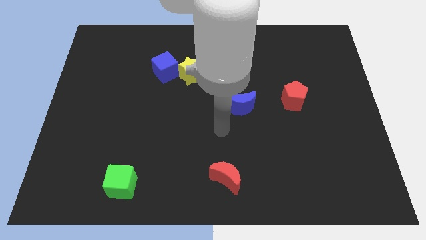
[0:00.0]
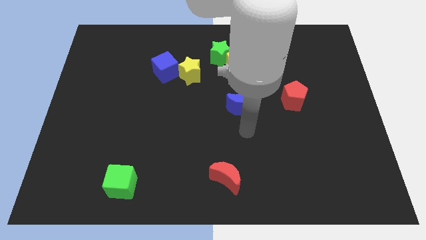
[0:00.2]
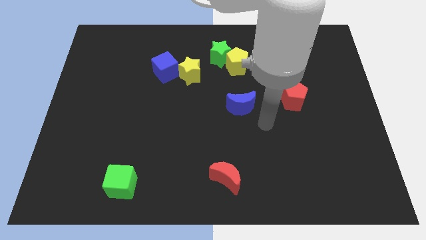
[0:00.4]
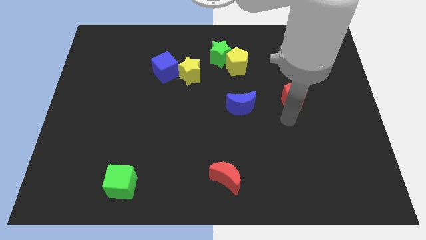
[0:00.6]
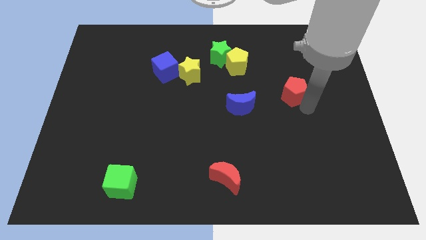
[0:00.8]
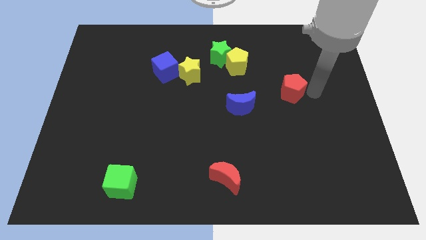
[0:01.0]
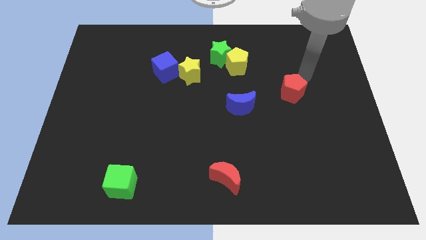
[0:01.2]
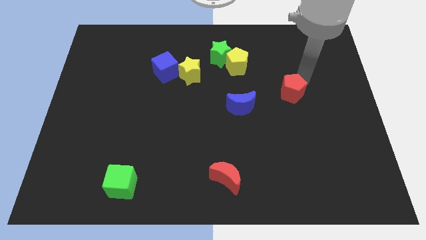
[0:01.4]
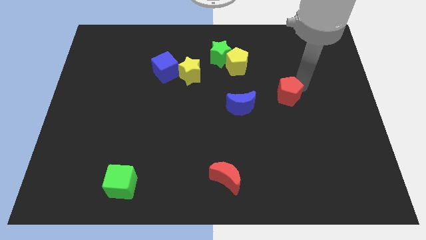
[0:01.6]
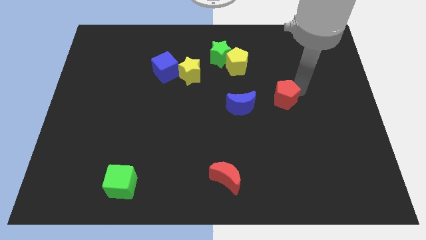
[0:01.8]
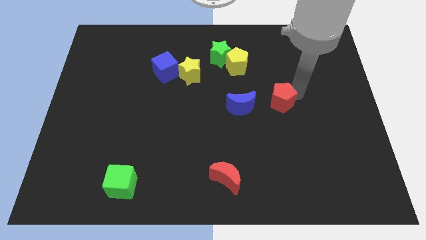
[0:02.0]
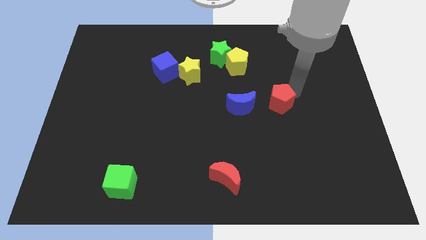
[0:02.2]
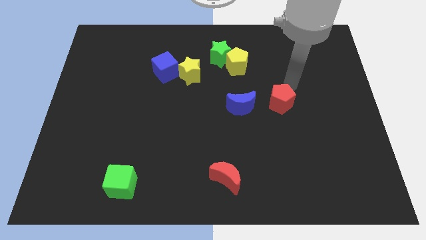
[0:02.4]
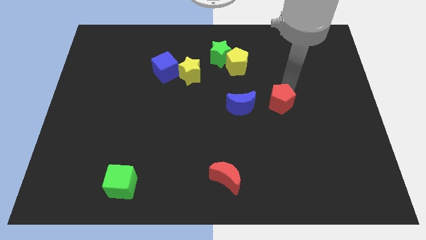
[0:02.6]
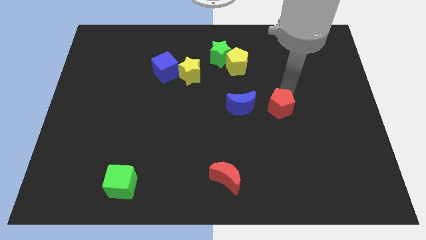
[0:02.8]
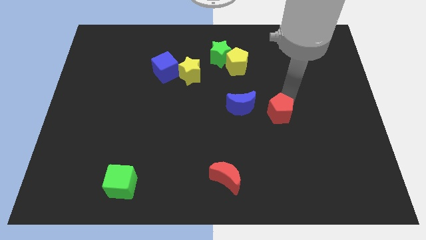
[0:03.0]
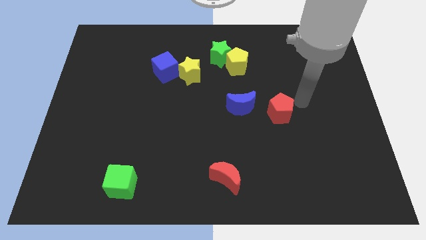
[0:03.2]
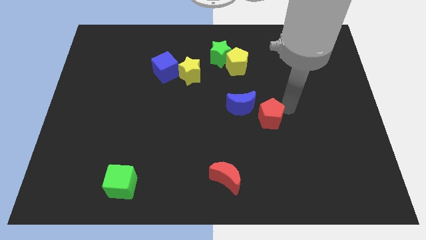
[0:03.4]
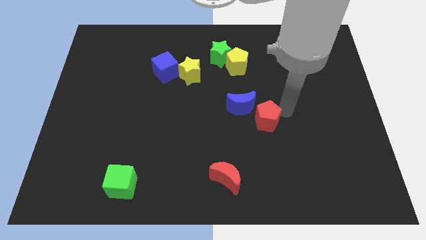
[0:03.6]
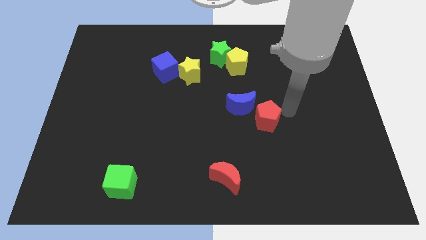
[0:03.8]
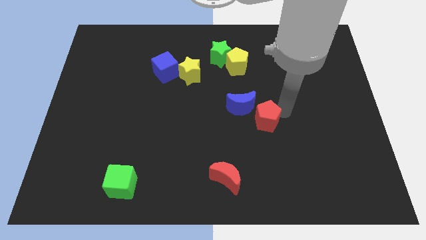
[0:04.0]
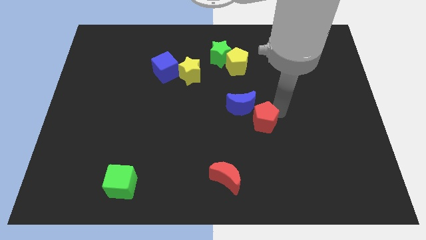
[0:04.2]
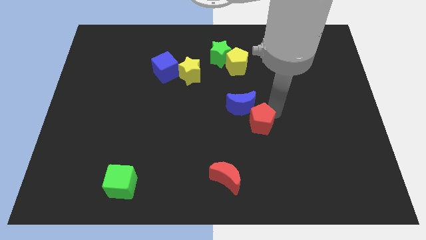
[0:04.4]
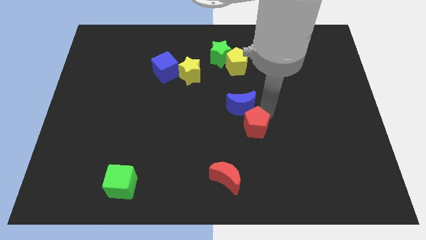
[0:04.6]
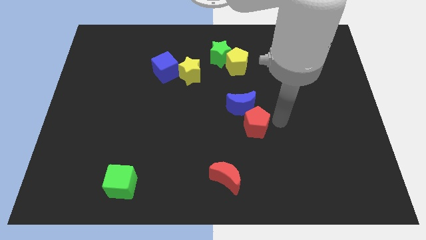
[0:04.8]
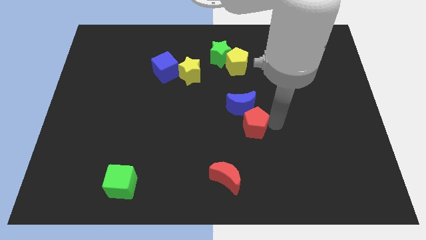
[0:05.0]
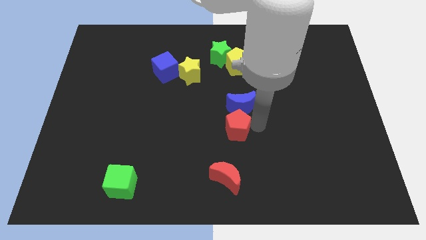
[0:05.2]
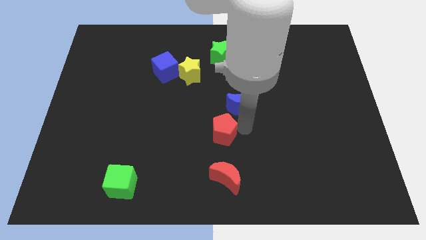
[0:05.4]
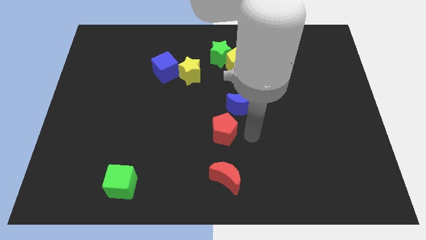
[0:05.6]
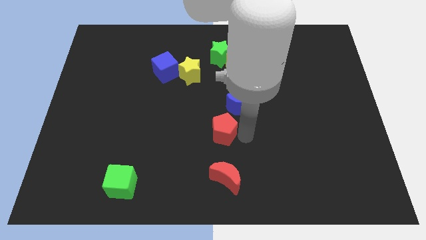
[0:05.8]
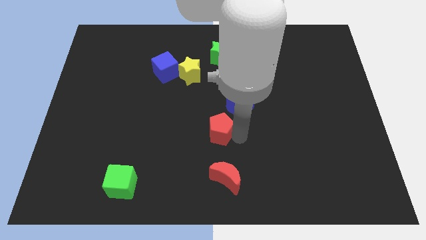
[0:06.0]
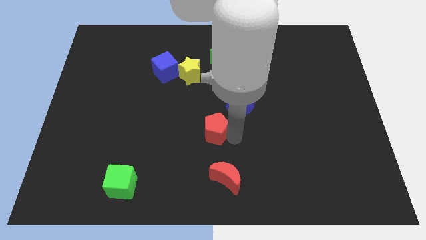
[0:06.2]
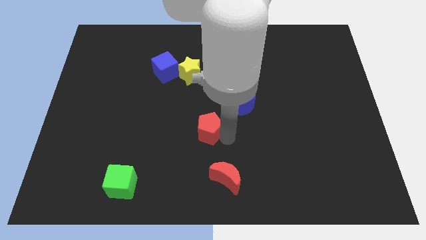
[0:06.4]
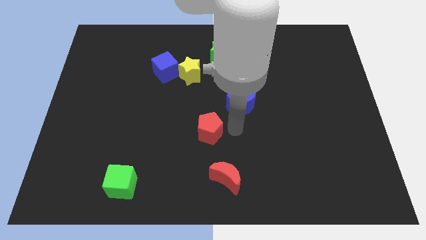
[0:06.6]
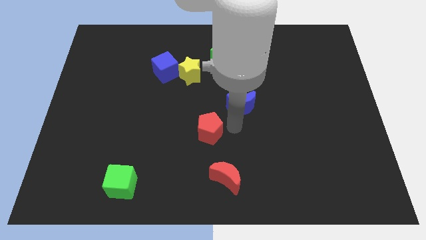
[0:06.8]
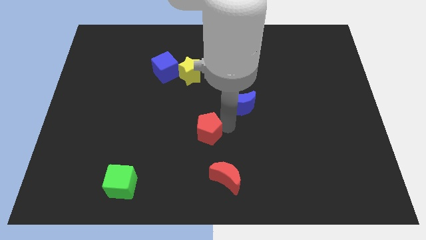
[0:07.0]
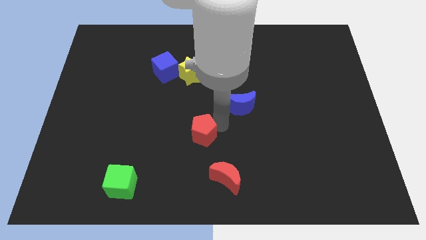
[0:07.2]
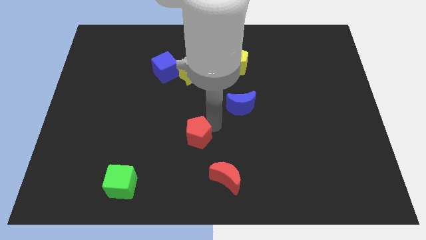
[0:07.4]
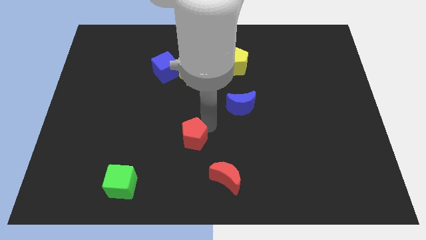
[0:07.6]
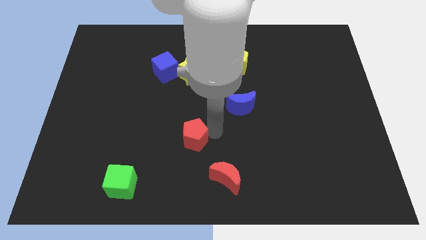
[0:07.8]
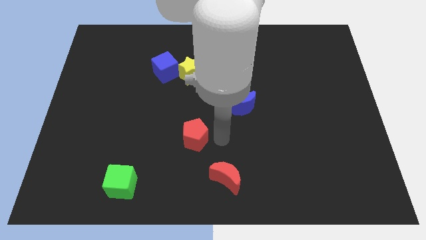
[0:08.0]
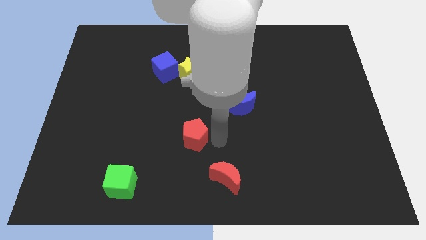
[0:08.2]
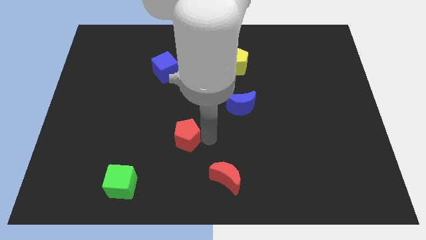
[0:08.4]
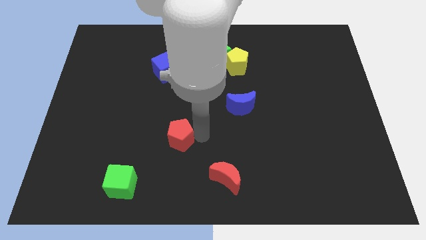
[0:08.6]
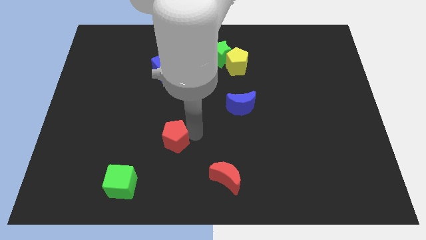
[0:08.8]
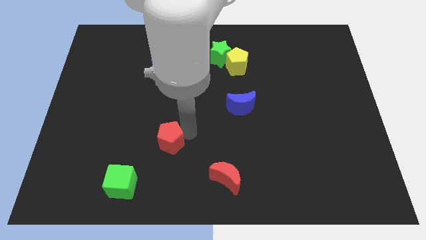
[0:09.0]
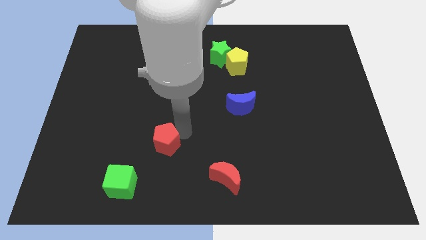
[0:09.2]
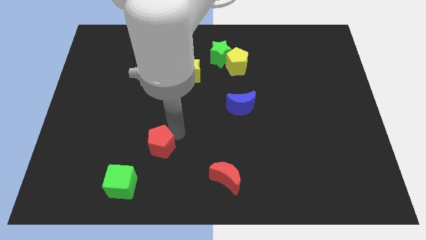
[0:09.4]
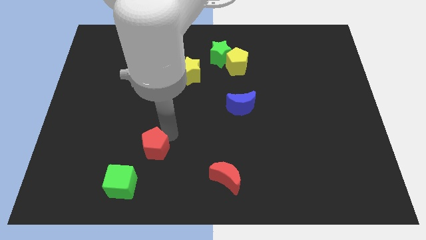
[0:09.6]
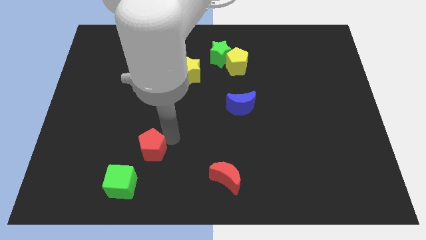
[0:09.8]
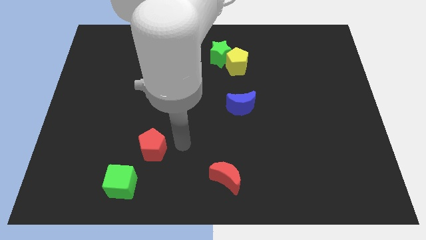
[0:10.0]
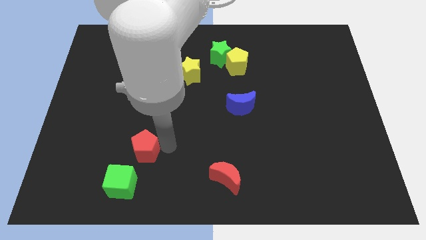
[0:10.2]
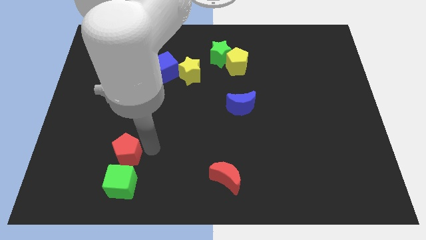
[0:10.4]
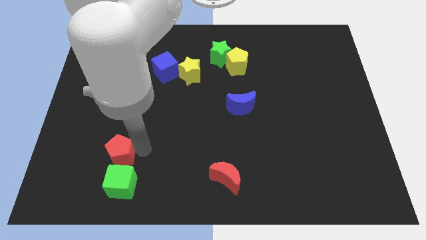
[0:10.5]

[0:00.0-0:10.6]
move the red pentagon diagonally up and to the left of the green cube

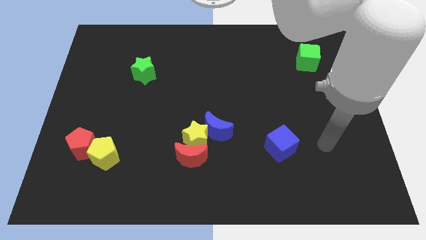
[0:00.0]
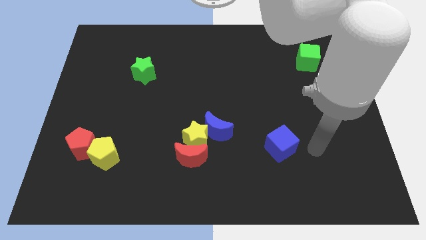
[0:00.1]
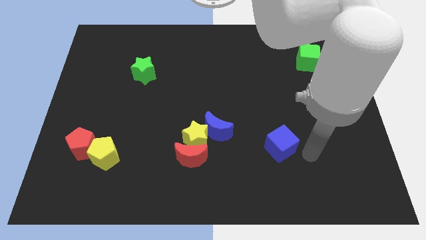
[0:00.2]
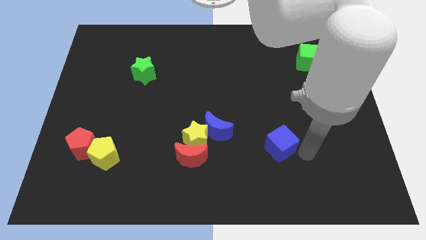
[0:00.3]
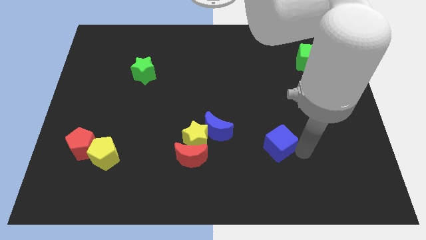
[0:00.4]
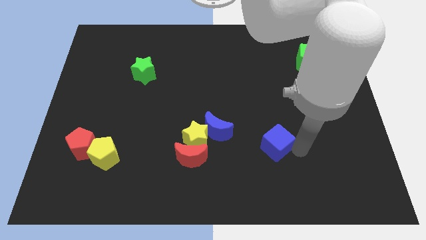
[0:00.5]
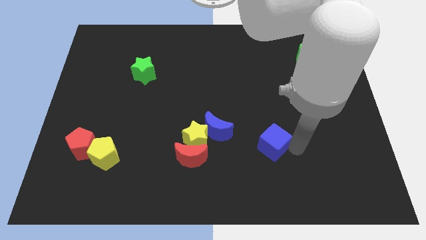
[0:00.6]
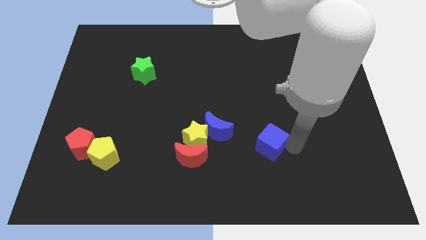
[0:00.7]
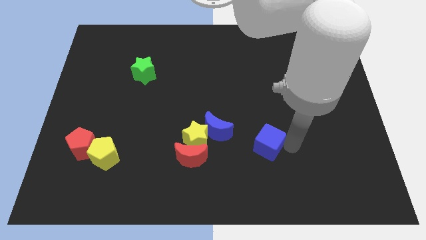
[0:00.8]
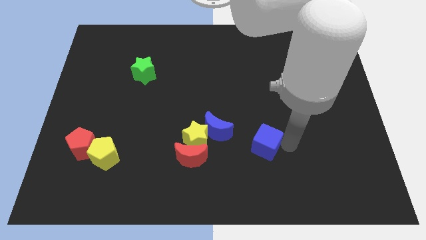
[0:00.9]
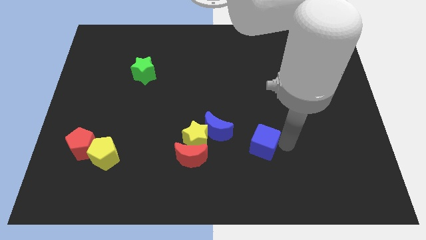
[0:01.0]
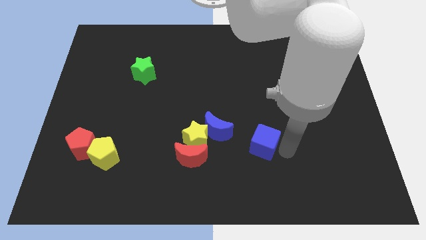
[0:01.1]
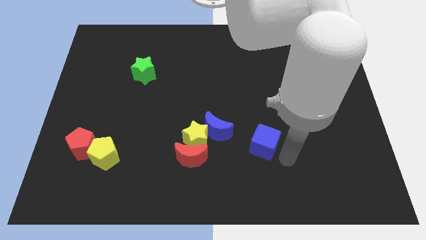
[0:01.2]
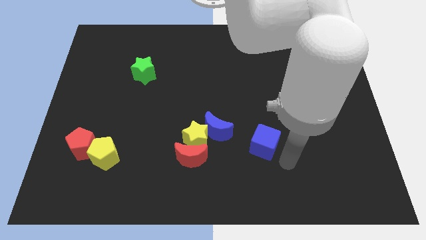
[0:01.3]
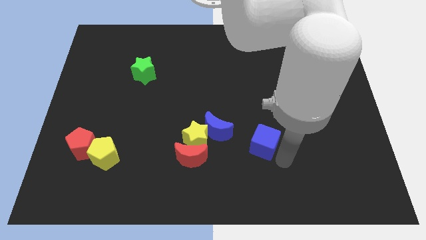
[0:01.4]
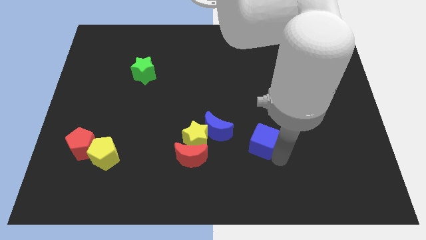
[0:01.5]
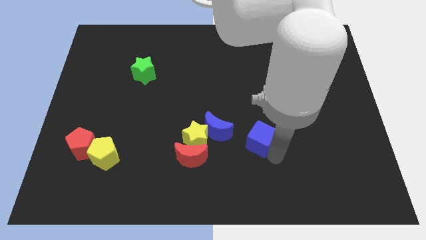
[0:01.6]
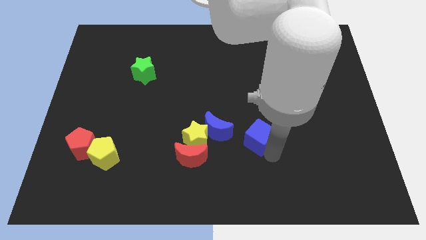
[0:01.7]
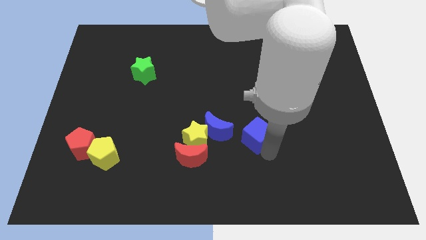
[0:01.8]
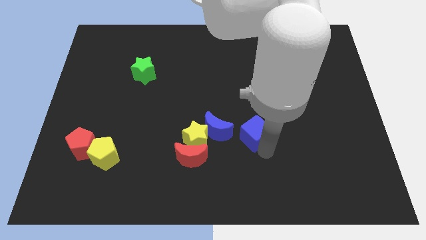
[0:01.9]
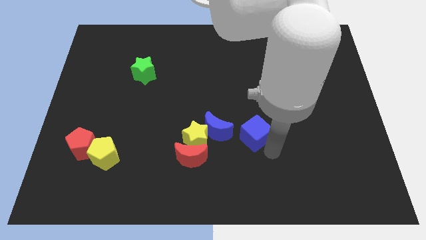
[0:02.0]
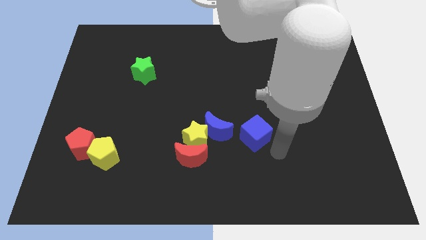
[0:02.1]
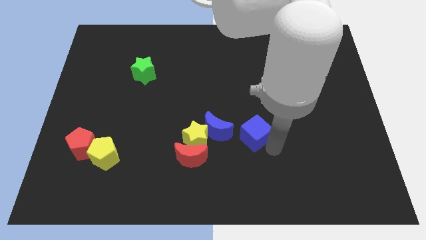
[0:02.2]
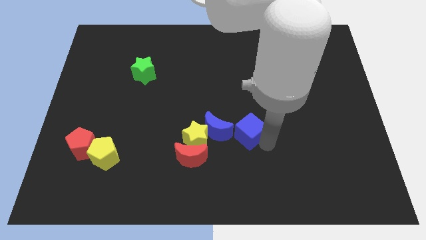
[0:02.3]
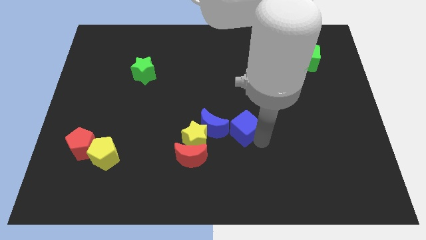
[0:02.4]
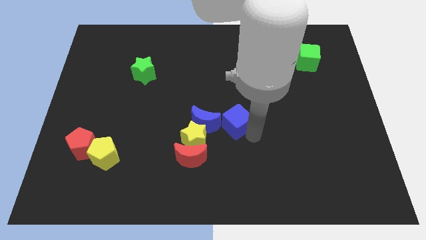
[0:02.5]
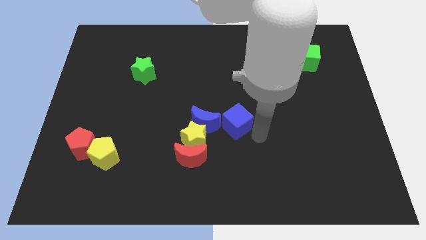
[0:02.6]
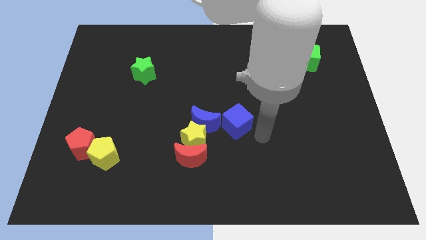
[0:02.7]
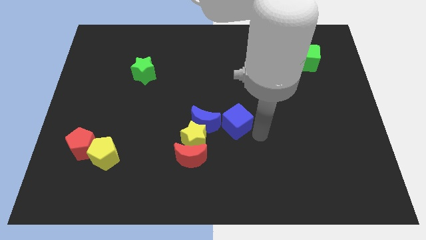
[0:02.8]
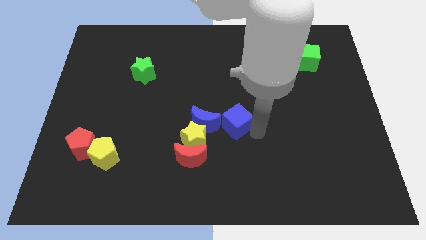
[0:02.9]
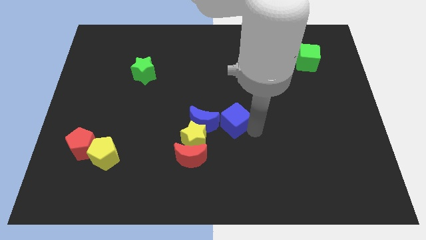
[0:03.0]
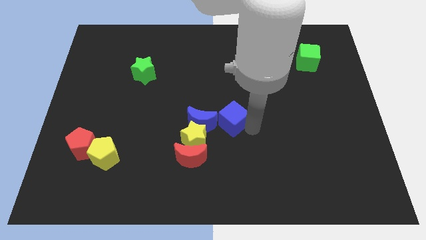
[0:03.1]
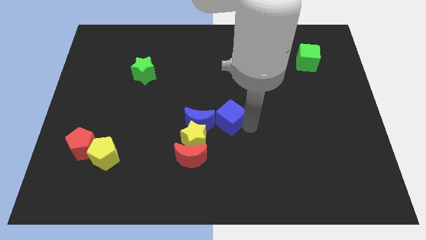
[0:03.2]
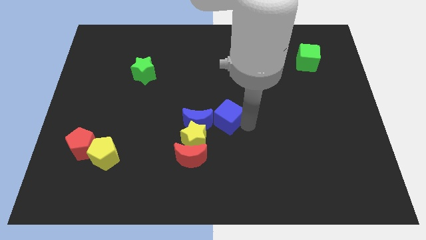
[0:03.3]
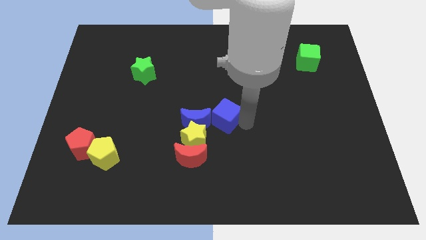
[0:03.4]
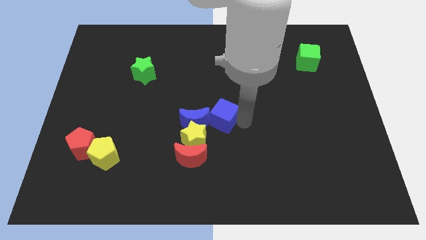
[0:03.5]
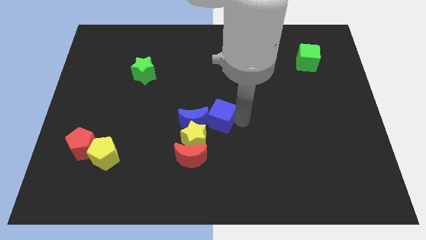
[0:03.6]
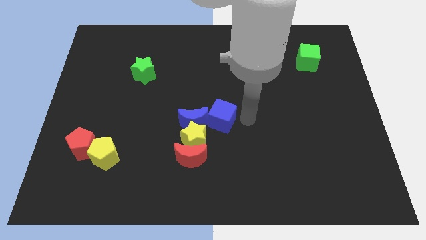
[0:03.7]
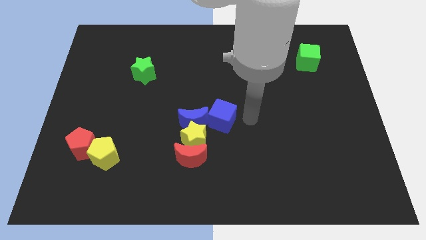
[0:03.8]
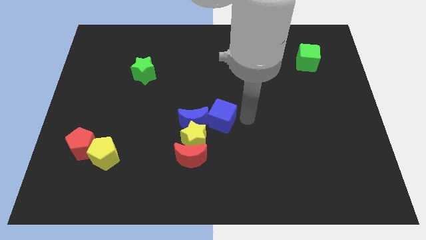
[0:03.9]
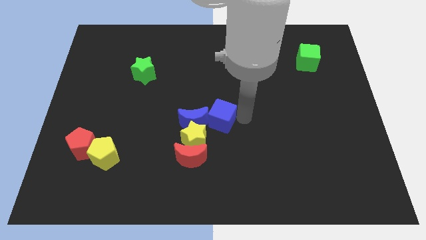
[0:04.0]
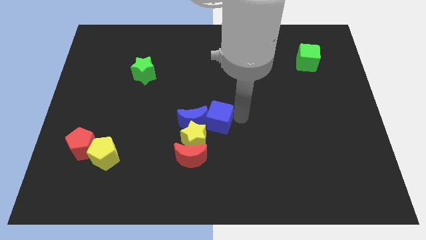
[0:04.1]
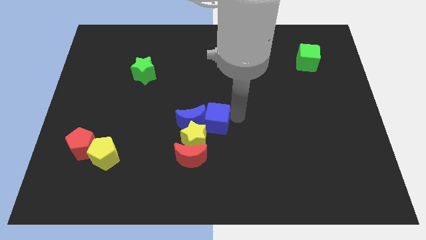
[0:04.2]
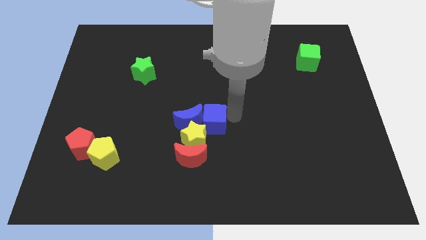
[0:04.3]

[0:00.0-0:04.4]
move the blue cube above the red moon
